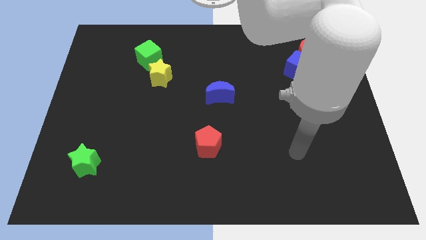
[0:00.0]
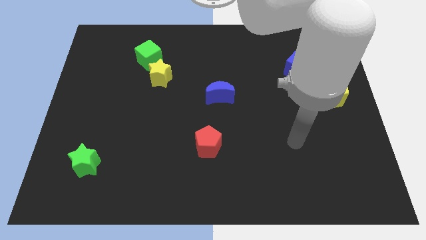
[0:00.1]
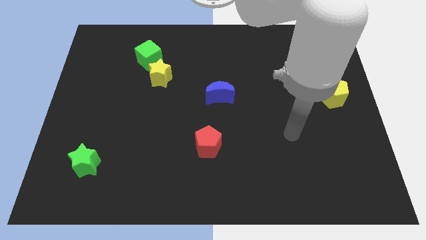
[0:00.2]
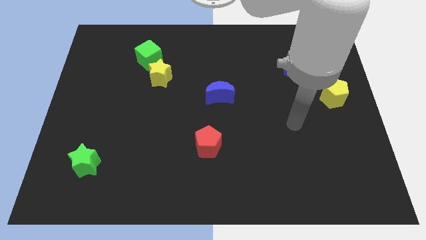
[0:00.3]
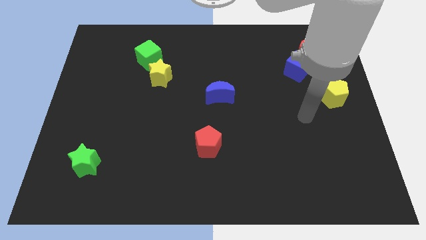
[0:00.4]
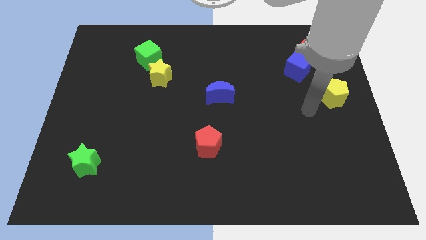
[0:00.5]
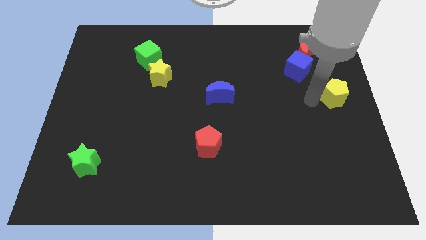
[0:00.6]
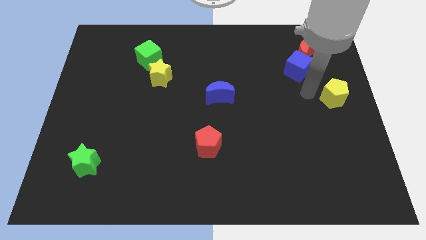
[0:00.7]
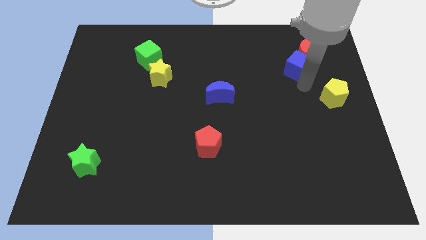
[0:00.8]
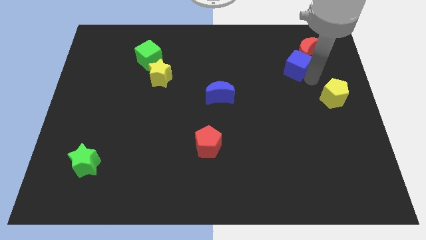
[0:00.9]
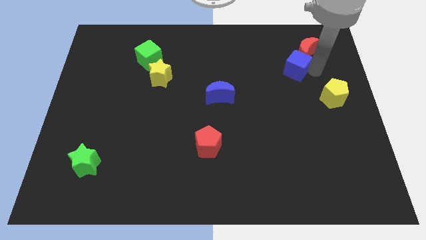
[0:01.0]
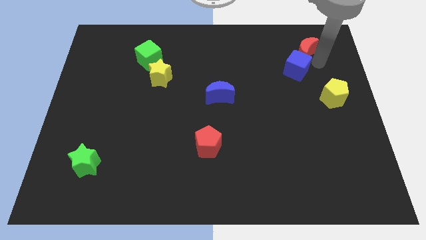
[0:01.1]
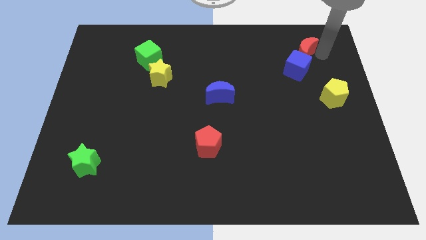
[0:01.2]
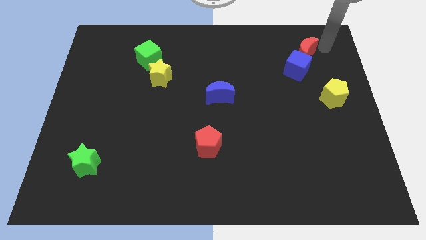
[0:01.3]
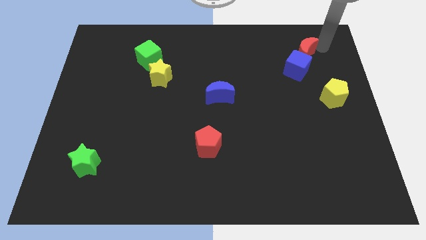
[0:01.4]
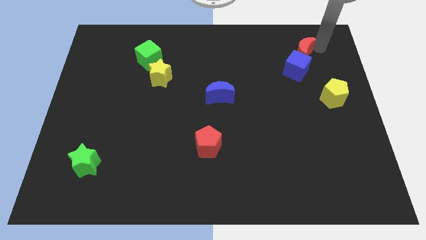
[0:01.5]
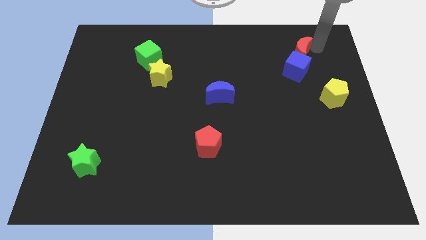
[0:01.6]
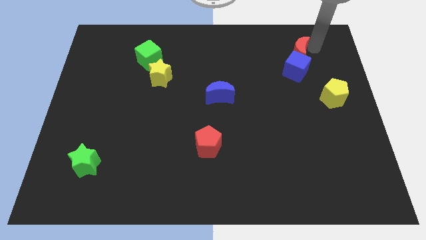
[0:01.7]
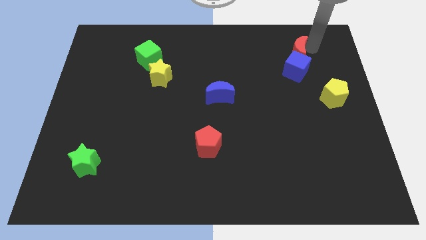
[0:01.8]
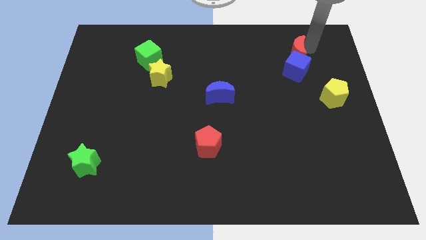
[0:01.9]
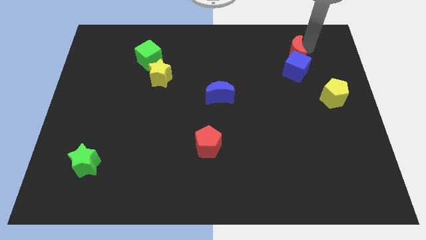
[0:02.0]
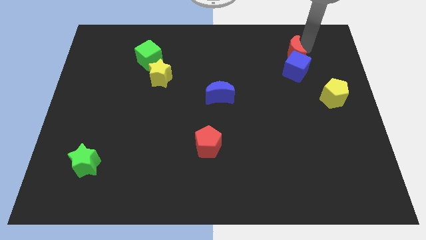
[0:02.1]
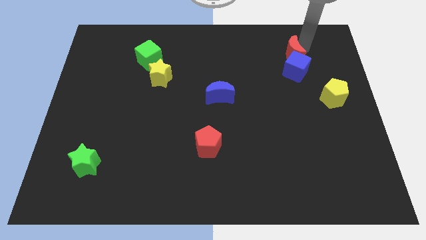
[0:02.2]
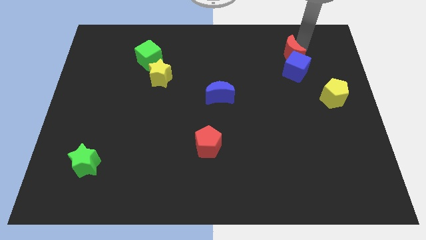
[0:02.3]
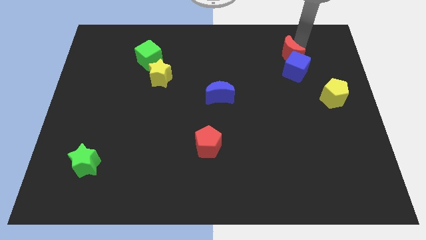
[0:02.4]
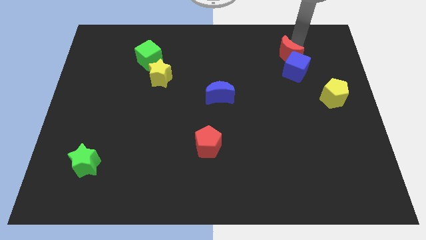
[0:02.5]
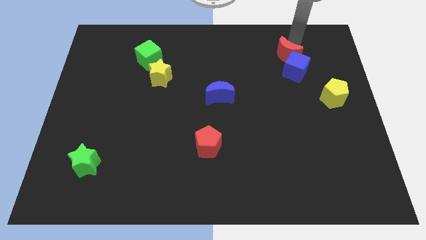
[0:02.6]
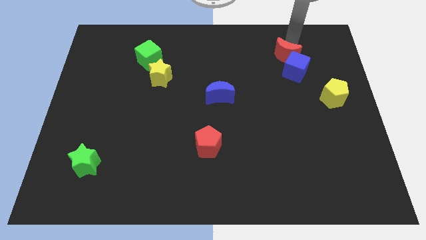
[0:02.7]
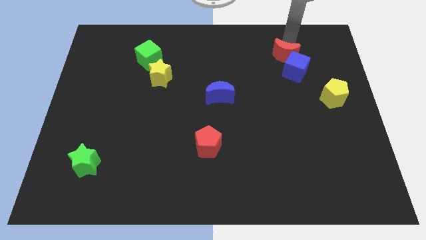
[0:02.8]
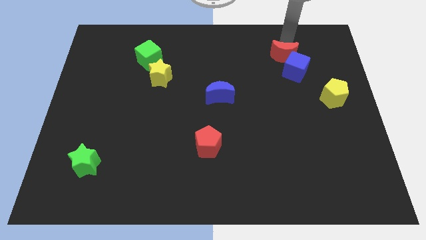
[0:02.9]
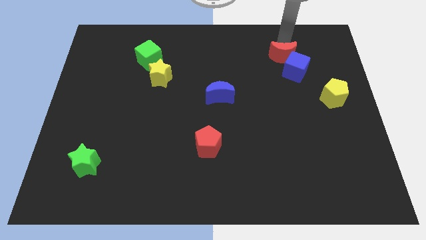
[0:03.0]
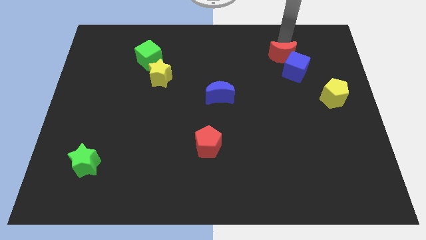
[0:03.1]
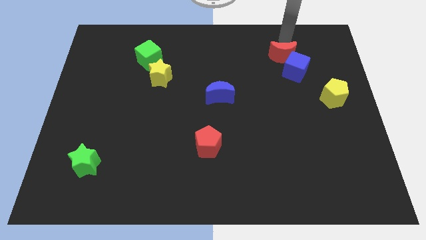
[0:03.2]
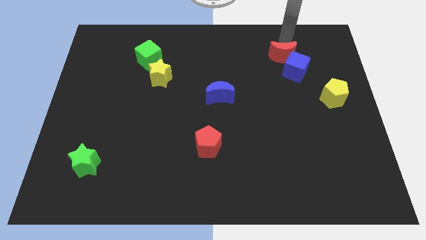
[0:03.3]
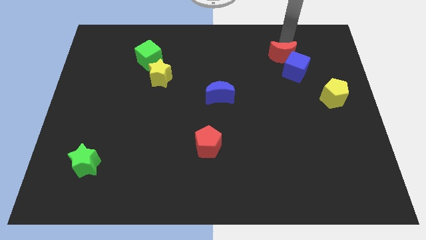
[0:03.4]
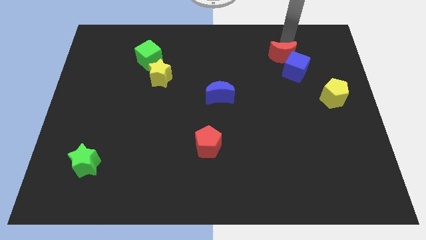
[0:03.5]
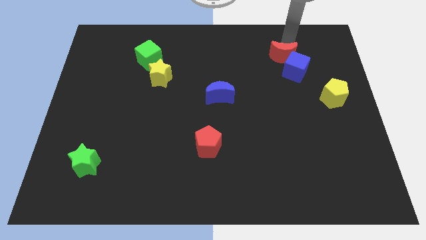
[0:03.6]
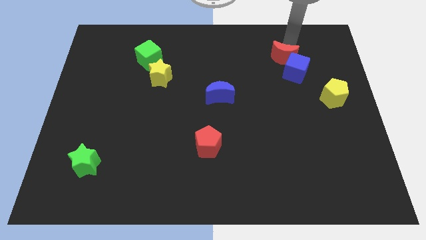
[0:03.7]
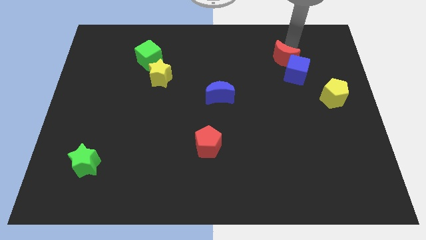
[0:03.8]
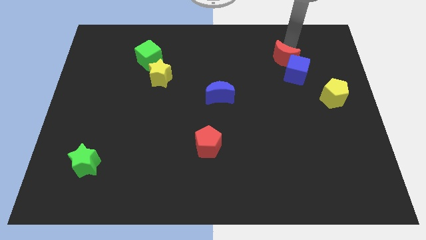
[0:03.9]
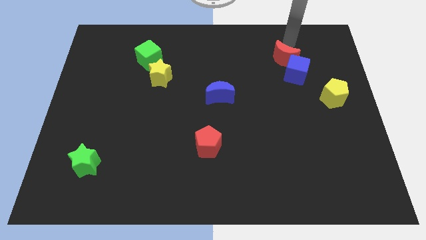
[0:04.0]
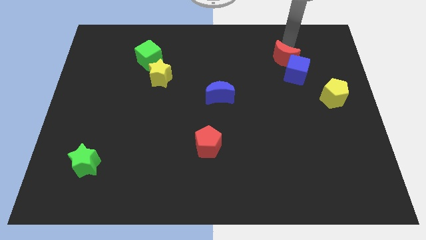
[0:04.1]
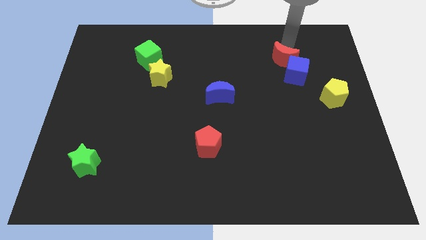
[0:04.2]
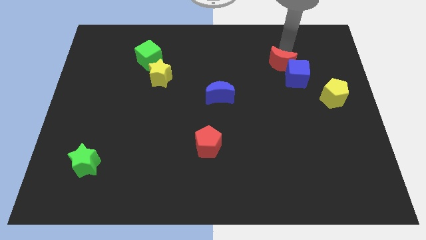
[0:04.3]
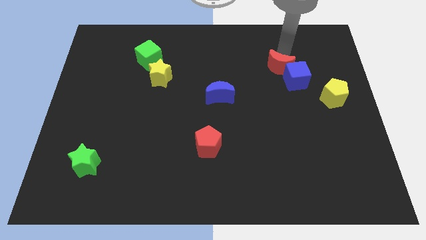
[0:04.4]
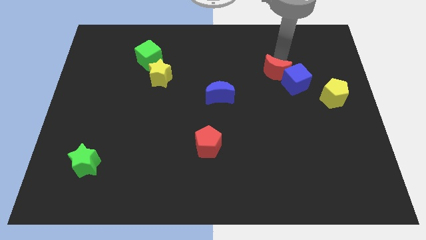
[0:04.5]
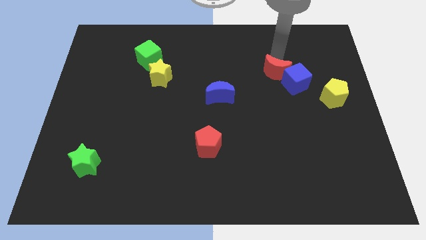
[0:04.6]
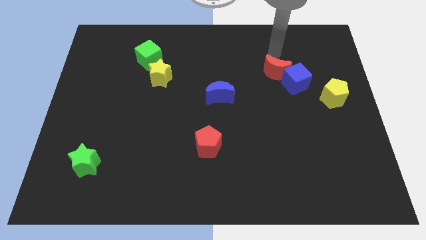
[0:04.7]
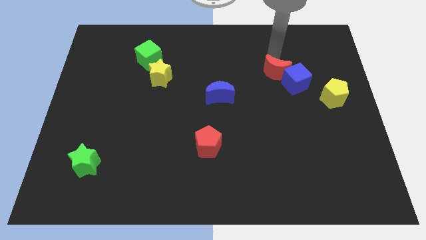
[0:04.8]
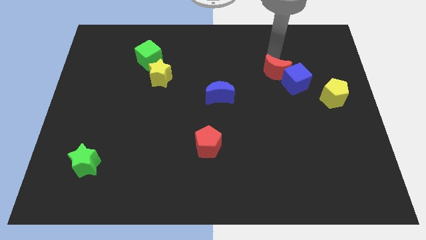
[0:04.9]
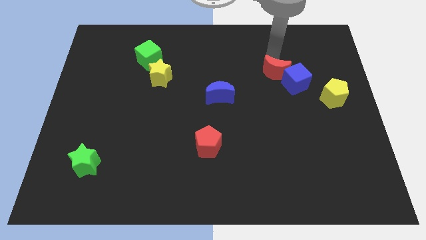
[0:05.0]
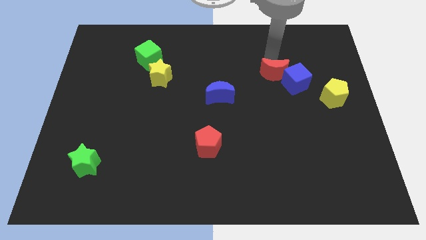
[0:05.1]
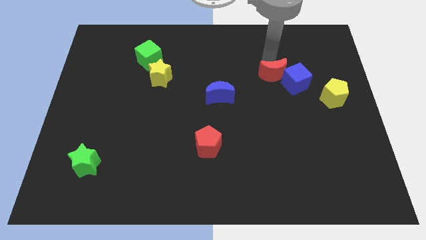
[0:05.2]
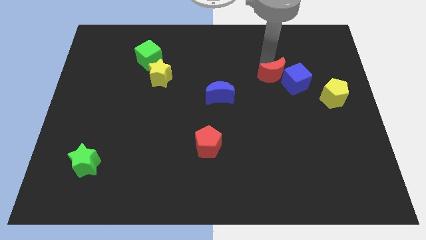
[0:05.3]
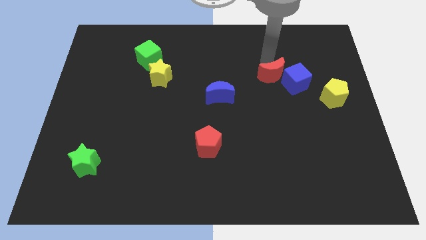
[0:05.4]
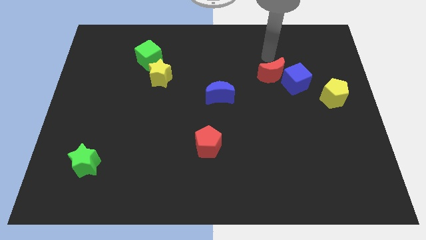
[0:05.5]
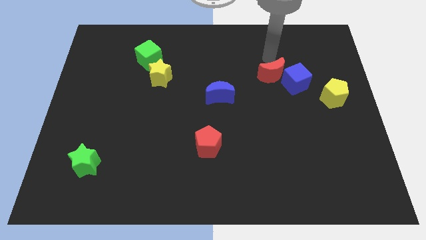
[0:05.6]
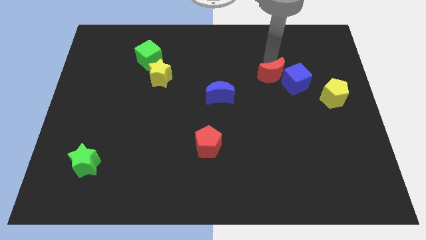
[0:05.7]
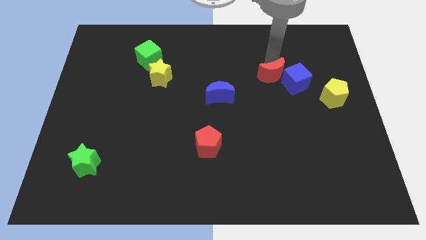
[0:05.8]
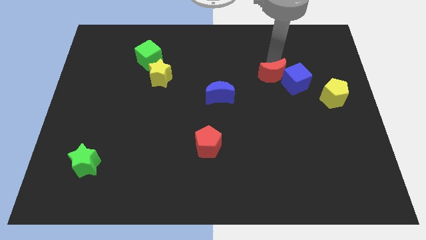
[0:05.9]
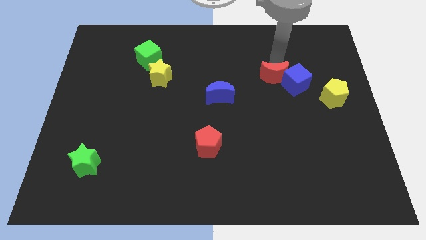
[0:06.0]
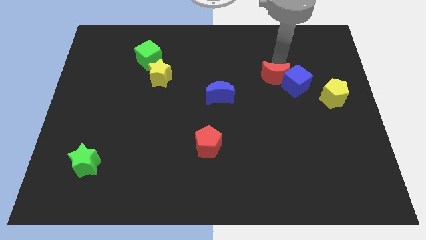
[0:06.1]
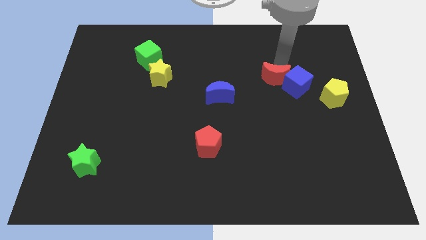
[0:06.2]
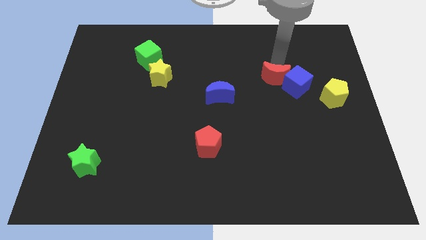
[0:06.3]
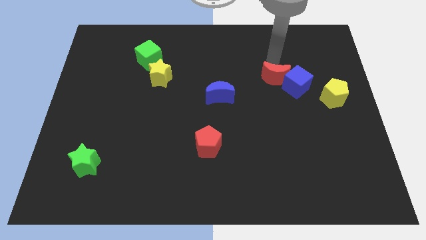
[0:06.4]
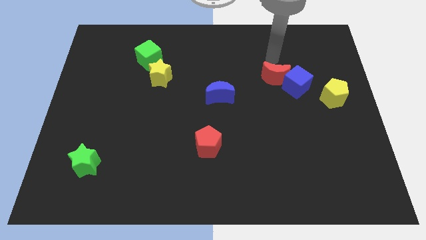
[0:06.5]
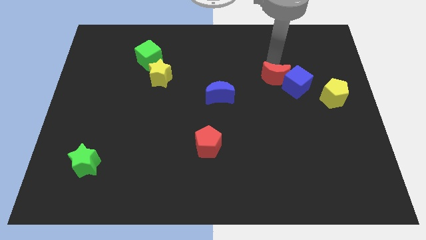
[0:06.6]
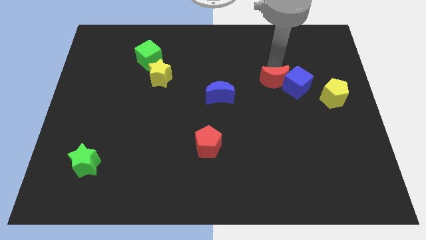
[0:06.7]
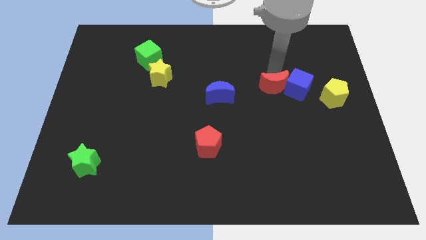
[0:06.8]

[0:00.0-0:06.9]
put the red moon to the bottom left of the blue cube
